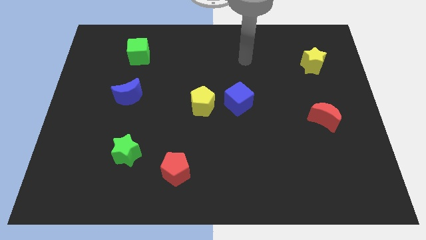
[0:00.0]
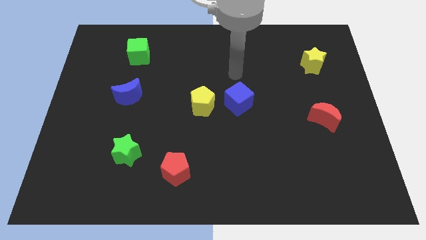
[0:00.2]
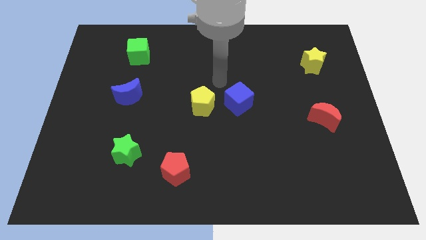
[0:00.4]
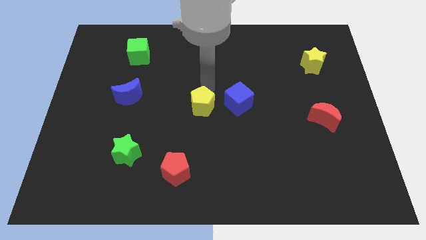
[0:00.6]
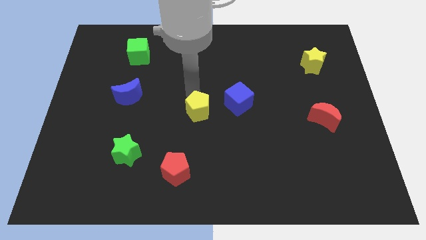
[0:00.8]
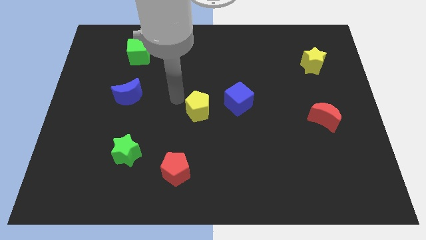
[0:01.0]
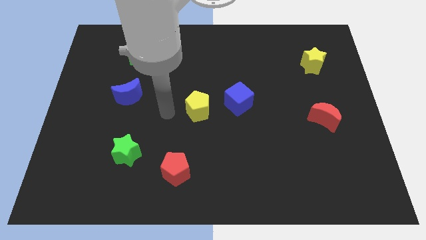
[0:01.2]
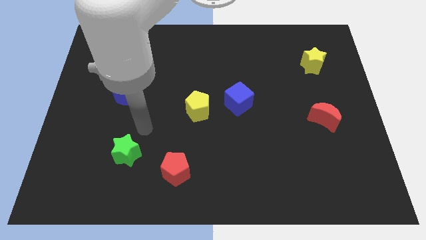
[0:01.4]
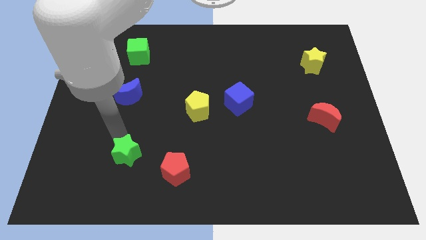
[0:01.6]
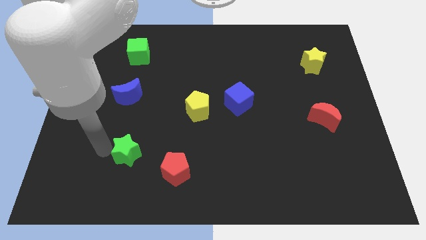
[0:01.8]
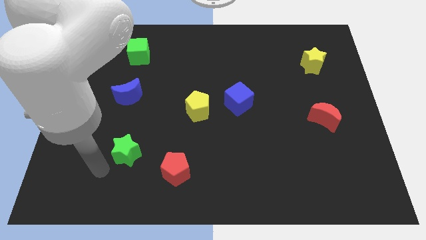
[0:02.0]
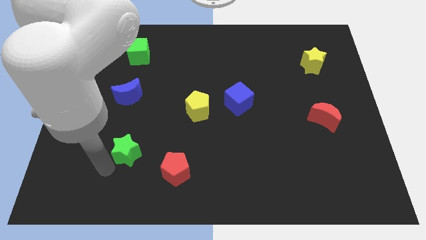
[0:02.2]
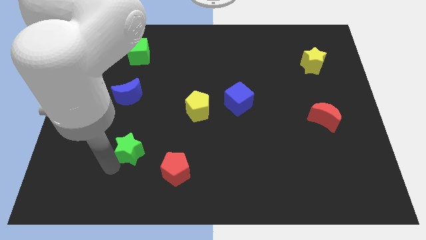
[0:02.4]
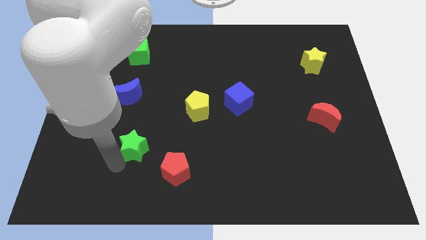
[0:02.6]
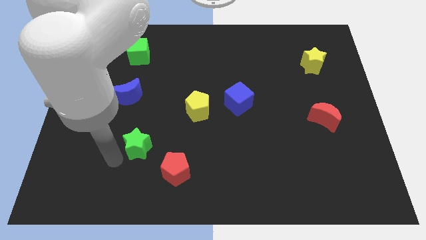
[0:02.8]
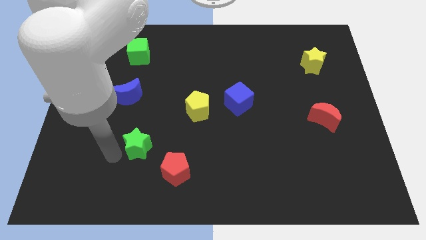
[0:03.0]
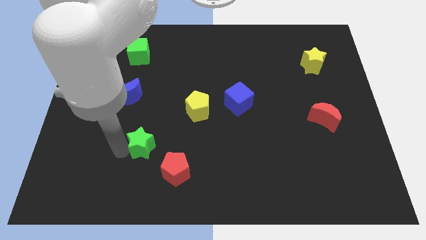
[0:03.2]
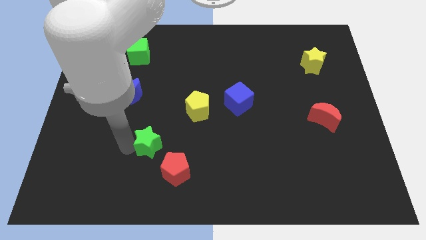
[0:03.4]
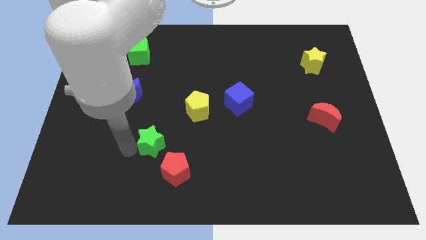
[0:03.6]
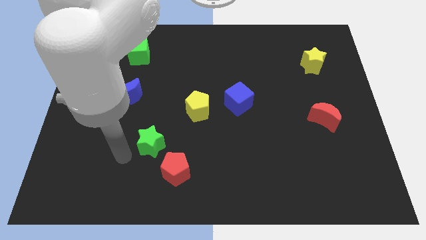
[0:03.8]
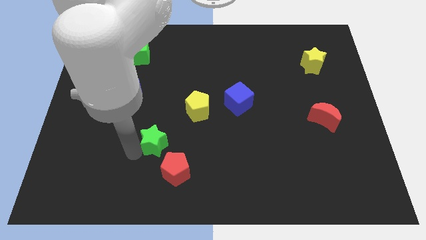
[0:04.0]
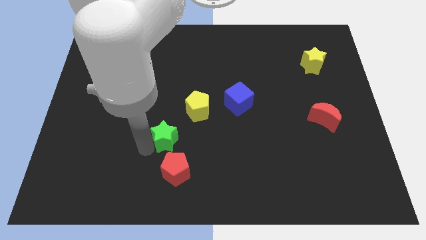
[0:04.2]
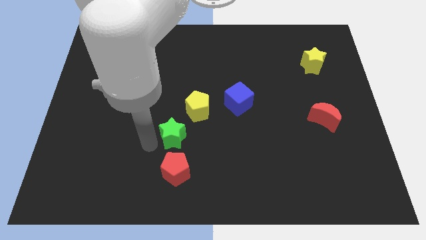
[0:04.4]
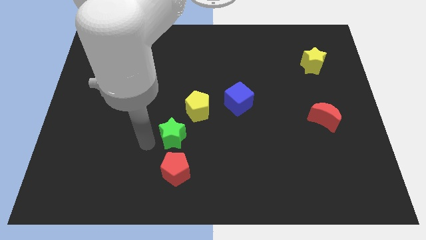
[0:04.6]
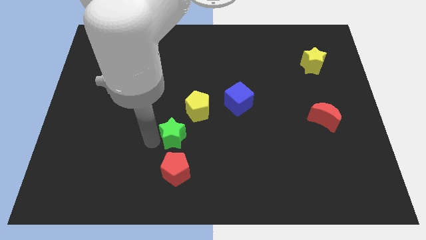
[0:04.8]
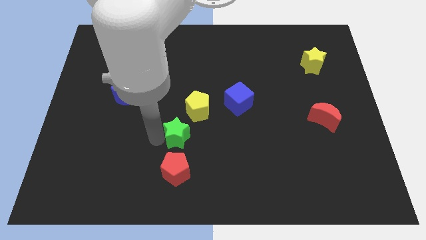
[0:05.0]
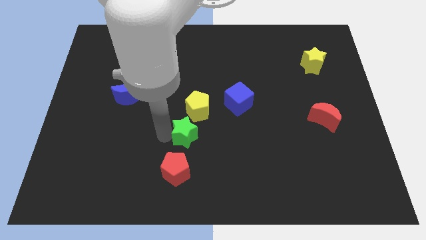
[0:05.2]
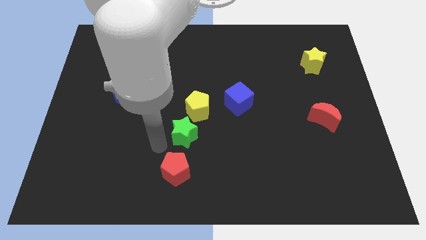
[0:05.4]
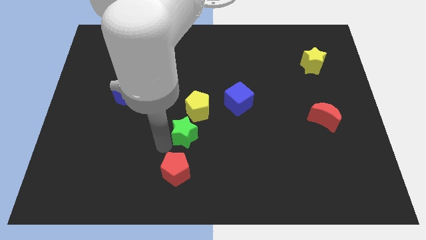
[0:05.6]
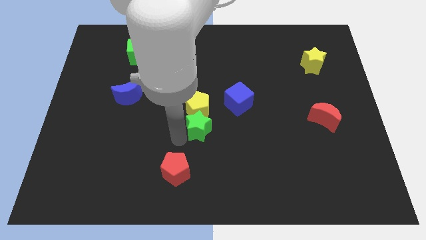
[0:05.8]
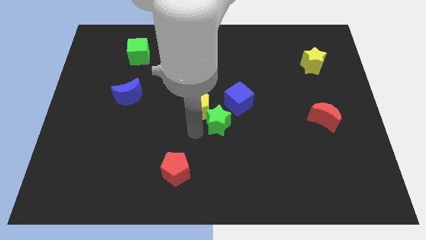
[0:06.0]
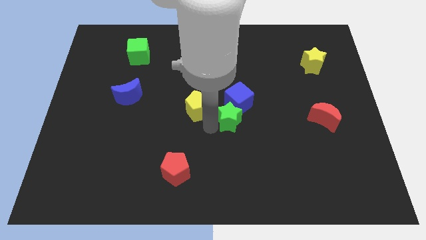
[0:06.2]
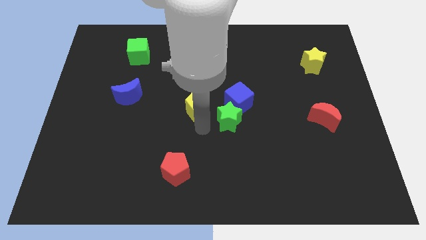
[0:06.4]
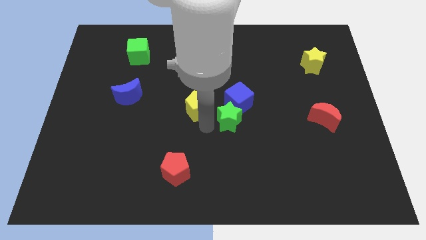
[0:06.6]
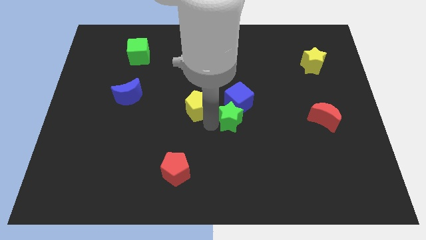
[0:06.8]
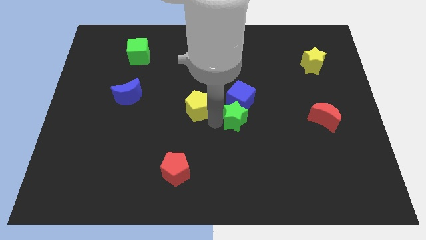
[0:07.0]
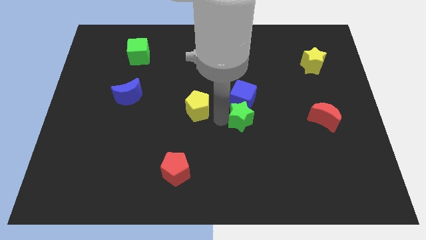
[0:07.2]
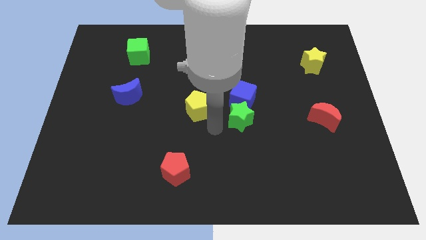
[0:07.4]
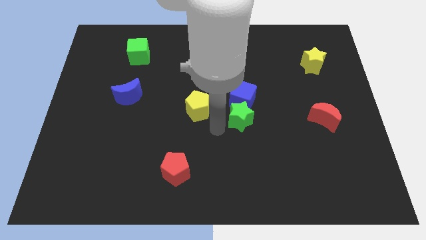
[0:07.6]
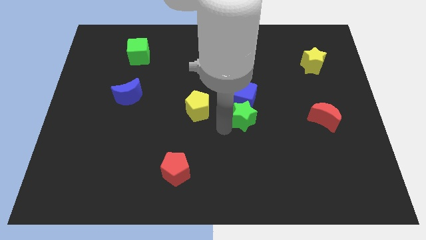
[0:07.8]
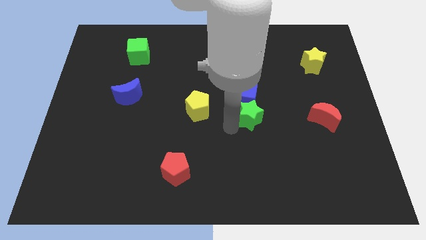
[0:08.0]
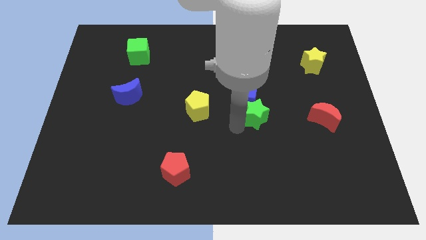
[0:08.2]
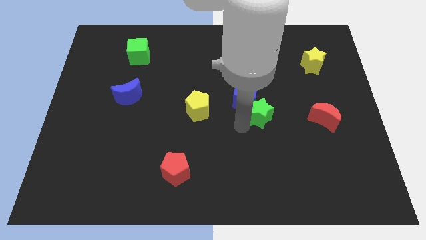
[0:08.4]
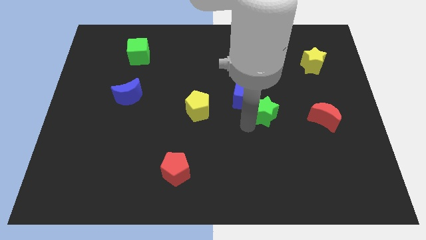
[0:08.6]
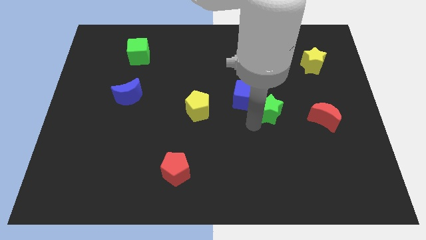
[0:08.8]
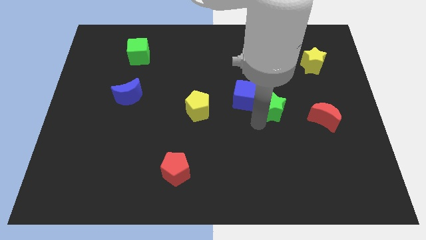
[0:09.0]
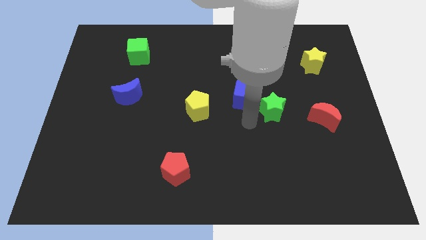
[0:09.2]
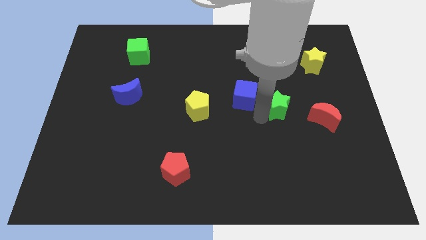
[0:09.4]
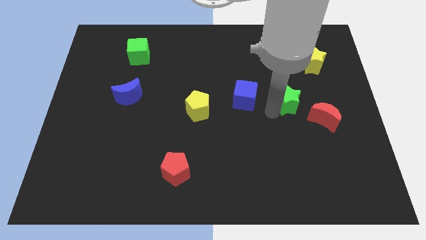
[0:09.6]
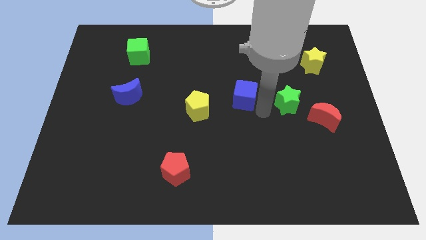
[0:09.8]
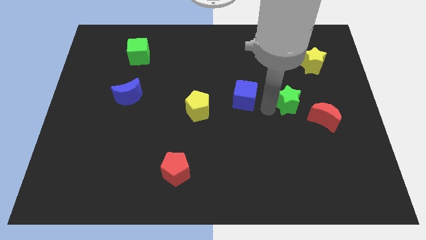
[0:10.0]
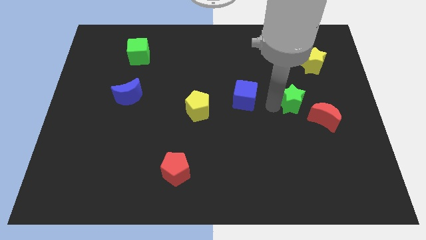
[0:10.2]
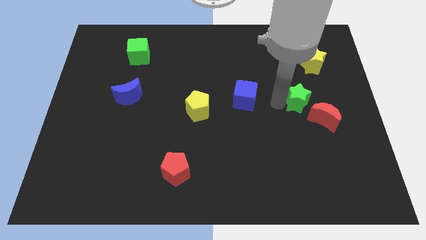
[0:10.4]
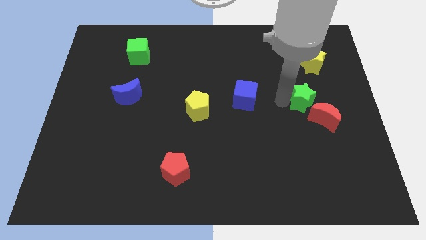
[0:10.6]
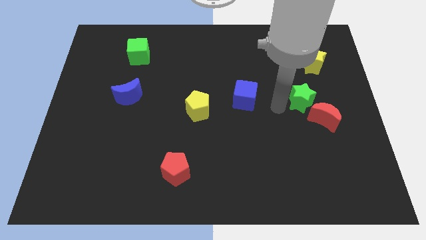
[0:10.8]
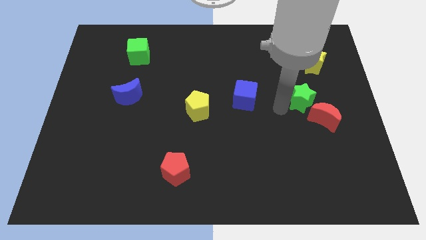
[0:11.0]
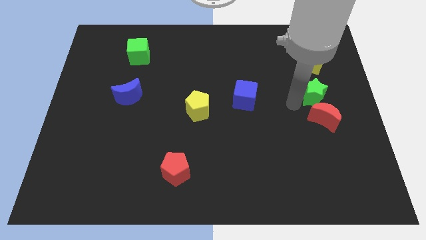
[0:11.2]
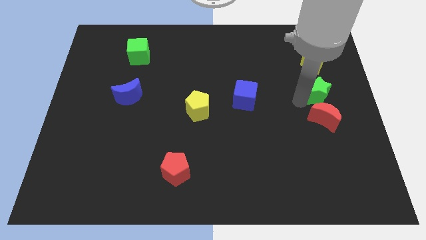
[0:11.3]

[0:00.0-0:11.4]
push the green star to the center right
